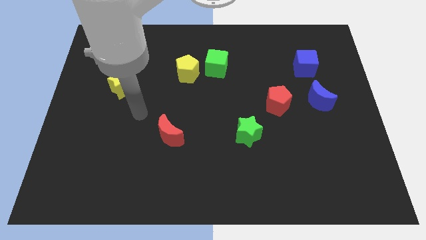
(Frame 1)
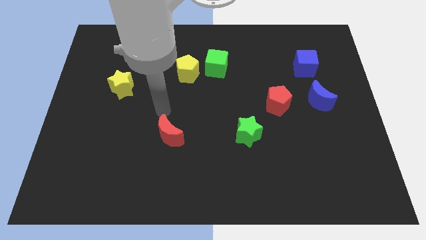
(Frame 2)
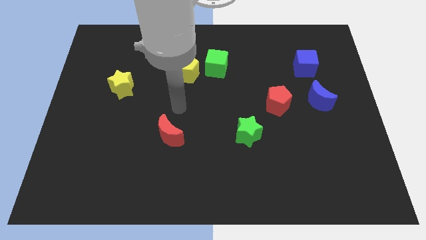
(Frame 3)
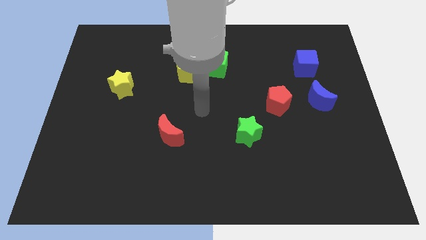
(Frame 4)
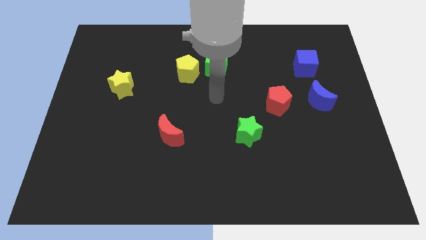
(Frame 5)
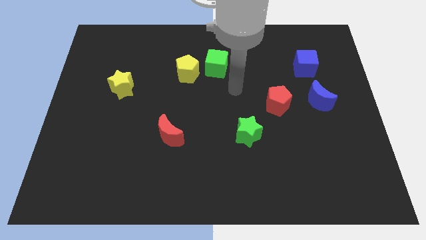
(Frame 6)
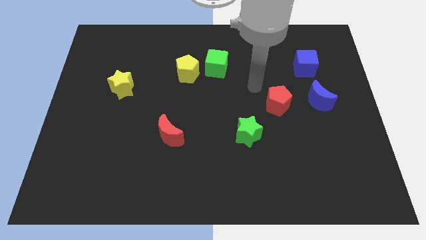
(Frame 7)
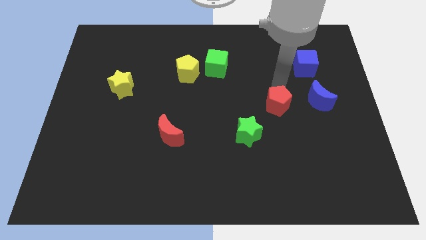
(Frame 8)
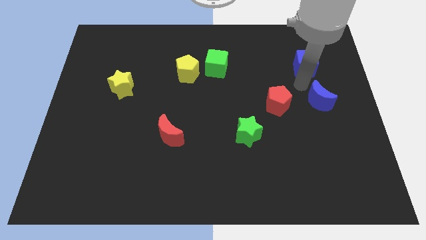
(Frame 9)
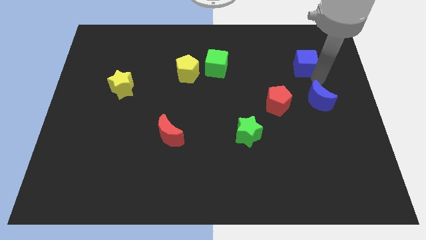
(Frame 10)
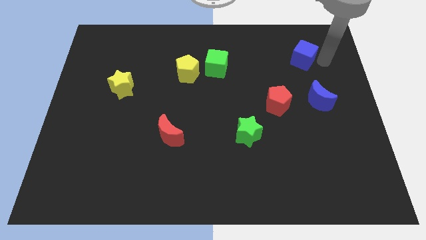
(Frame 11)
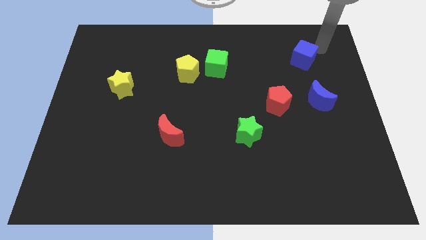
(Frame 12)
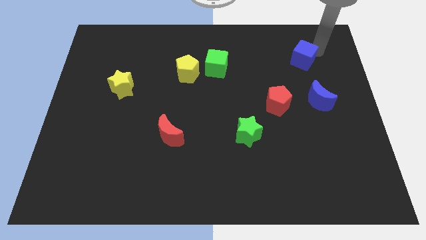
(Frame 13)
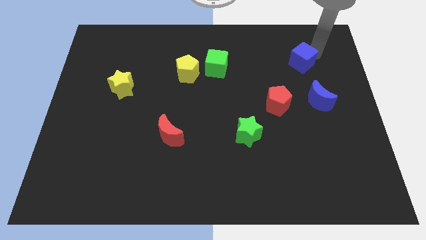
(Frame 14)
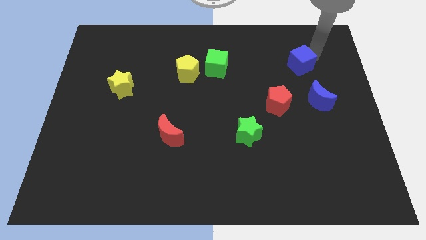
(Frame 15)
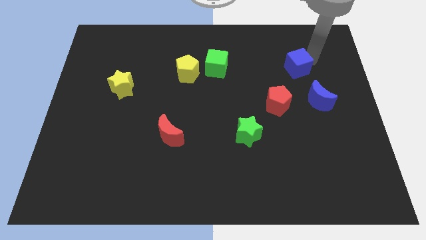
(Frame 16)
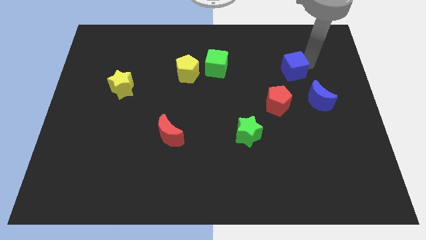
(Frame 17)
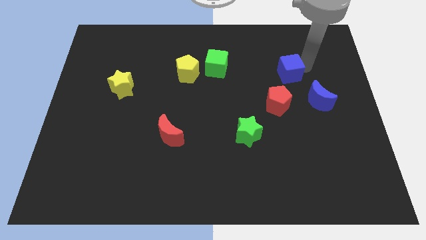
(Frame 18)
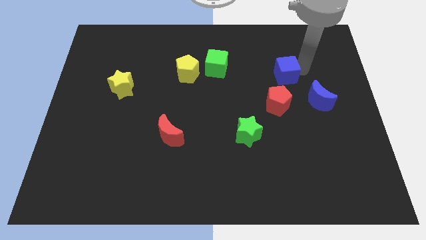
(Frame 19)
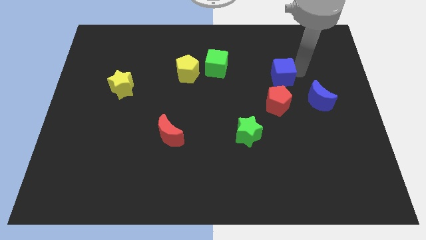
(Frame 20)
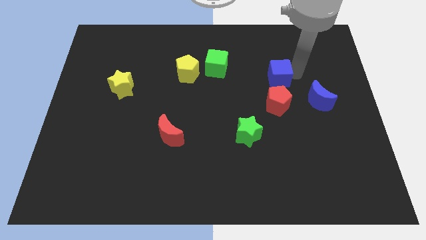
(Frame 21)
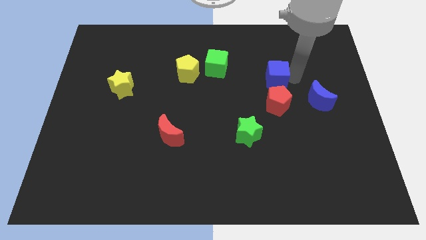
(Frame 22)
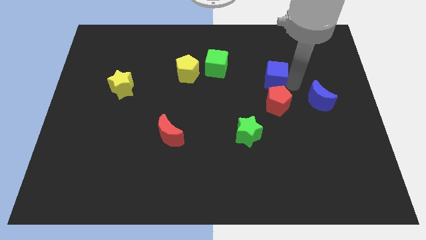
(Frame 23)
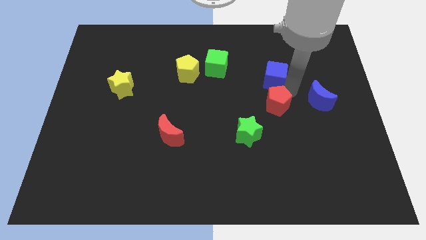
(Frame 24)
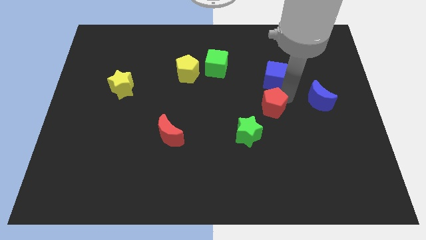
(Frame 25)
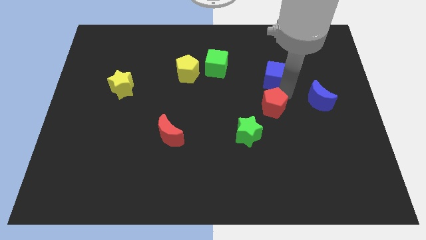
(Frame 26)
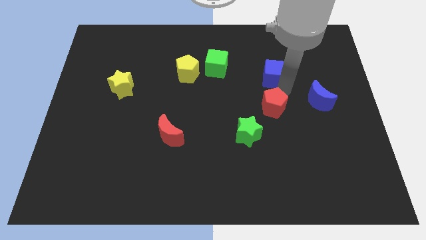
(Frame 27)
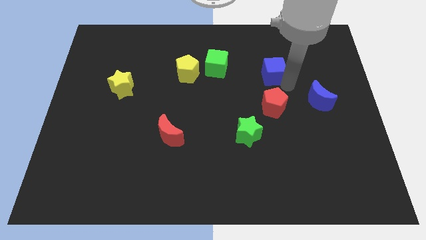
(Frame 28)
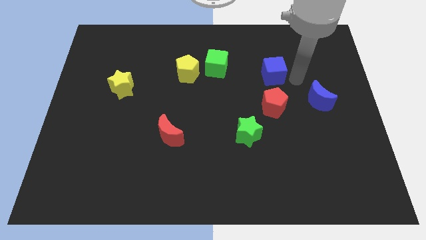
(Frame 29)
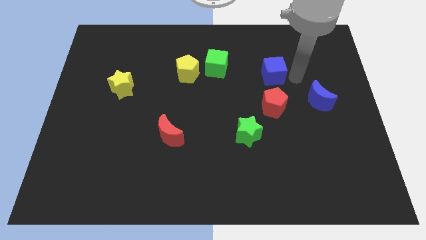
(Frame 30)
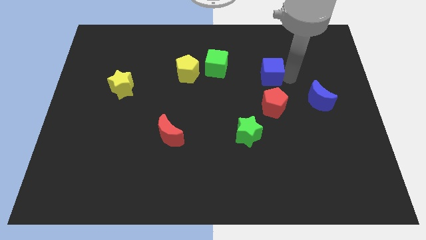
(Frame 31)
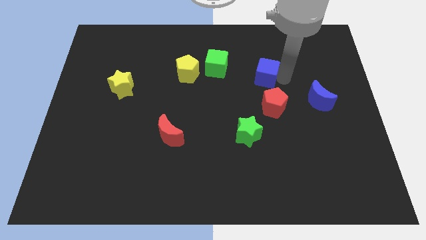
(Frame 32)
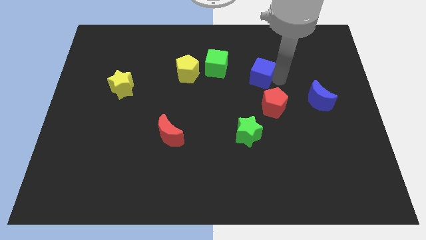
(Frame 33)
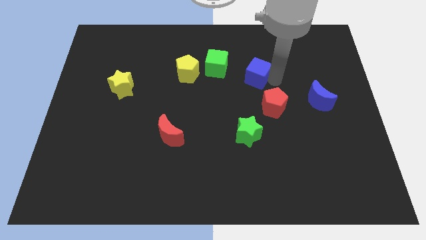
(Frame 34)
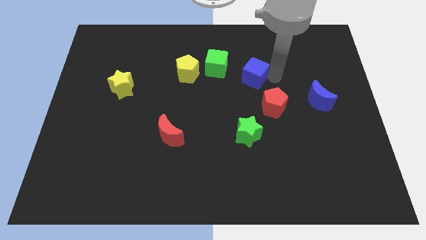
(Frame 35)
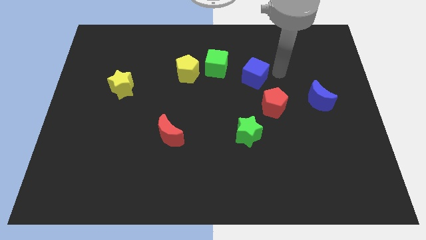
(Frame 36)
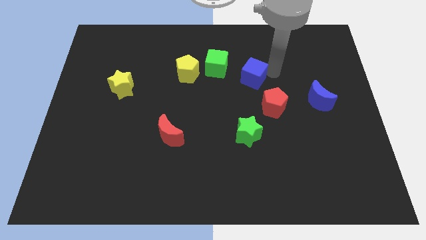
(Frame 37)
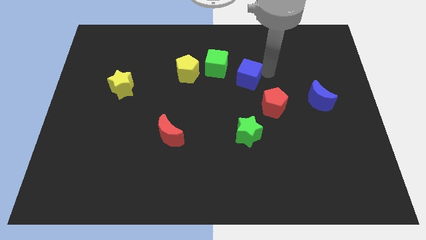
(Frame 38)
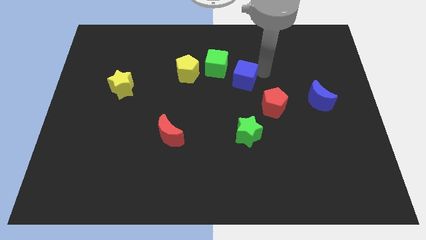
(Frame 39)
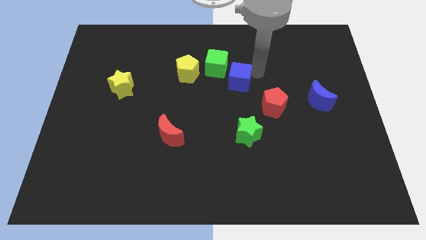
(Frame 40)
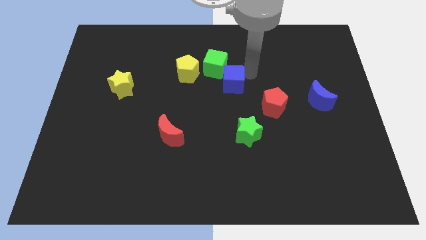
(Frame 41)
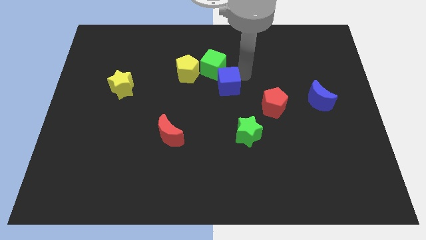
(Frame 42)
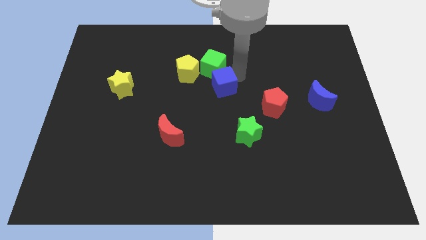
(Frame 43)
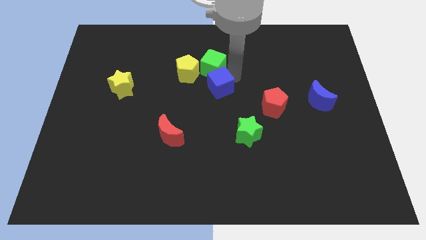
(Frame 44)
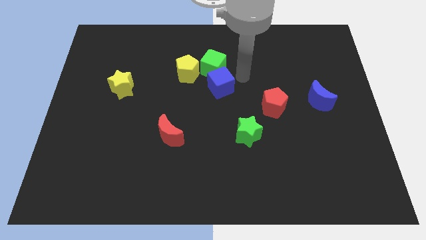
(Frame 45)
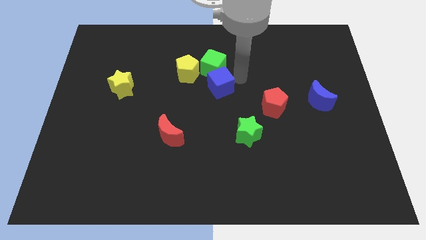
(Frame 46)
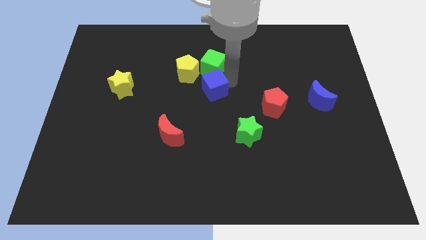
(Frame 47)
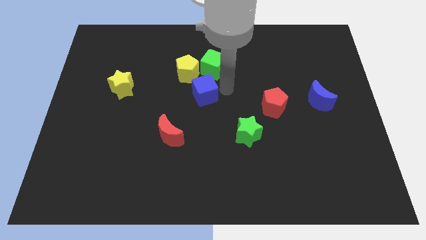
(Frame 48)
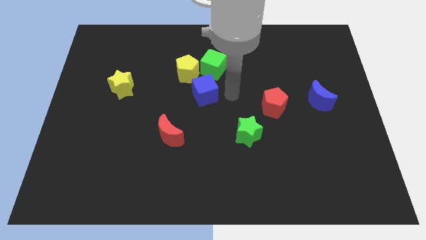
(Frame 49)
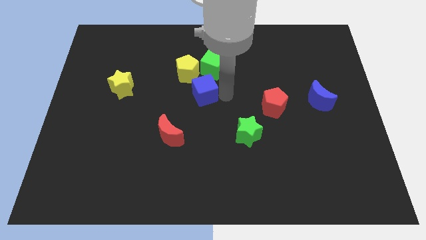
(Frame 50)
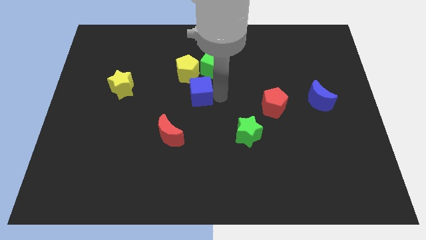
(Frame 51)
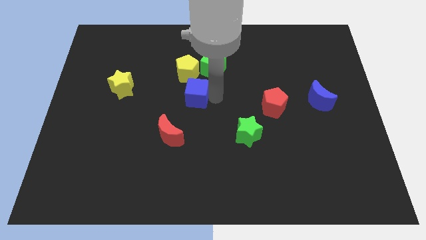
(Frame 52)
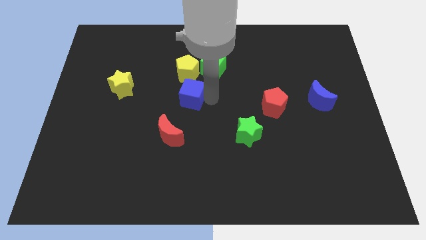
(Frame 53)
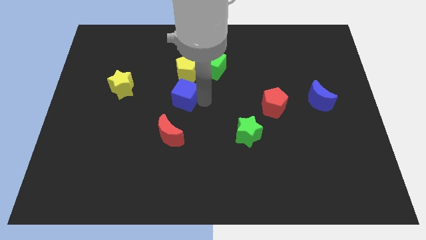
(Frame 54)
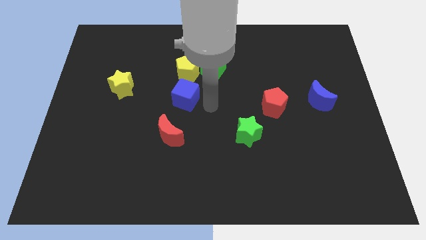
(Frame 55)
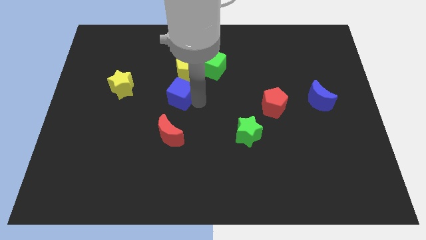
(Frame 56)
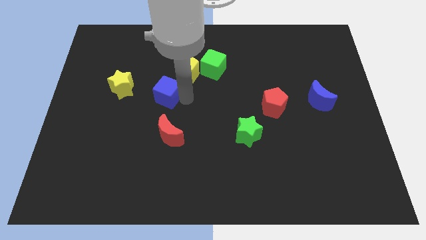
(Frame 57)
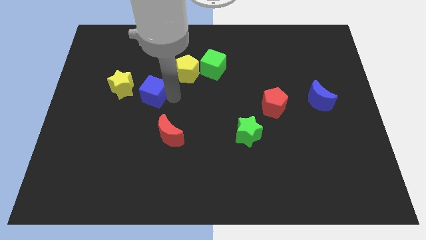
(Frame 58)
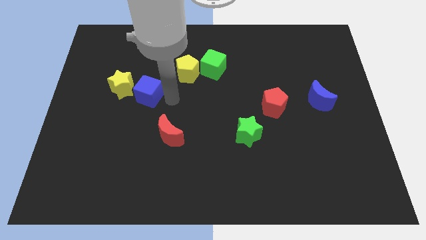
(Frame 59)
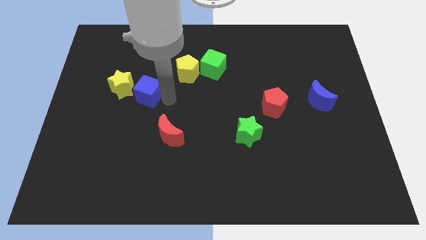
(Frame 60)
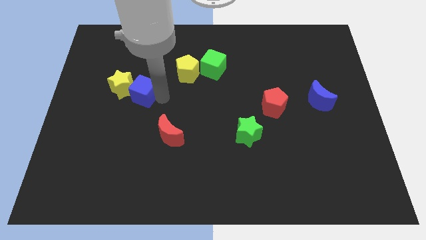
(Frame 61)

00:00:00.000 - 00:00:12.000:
slide the blue cube next to the yellow star

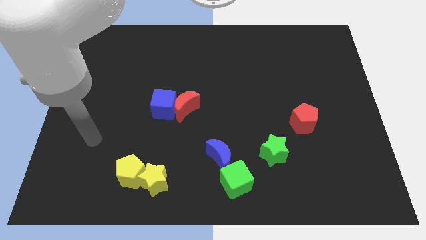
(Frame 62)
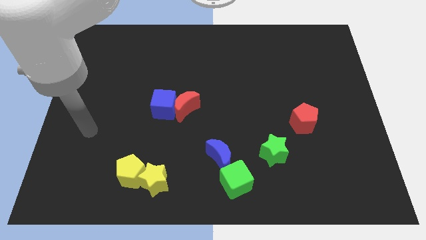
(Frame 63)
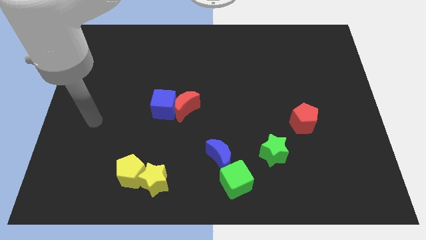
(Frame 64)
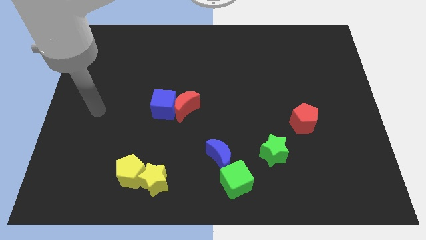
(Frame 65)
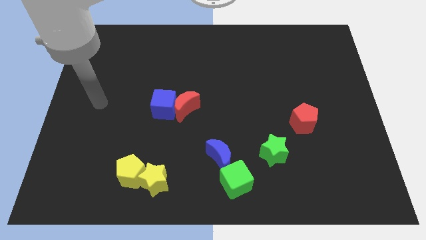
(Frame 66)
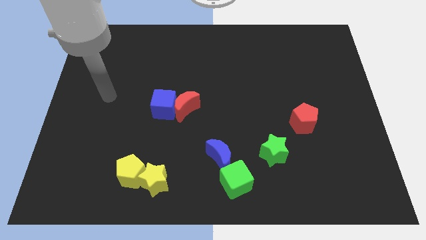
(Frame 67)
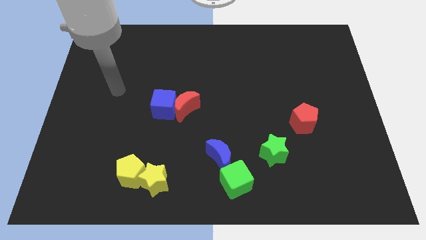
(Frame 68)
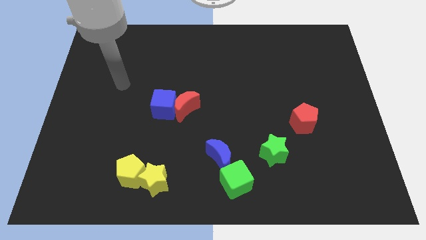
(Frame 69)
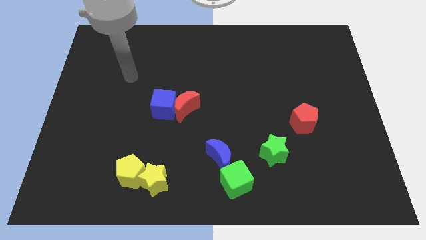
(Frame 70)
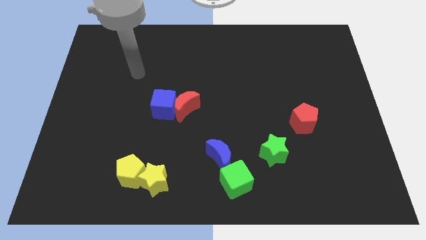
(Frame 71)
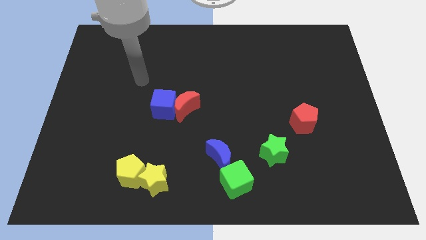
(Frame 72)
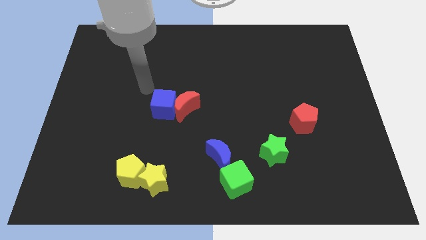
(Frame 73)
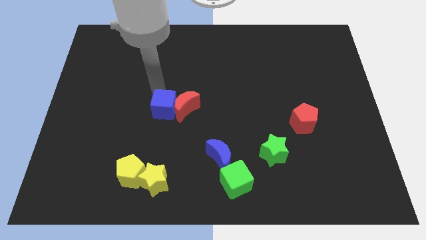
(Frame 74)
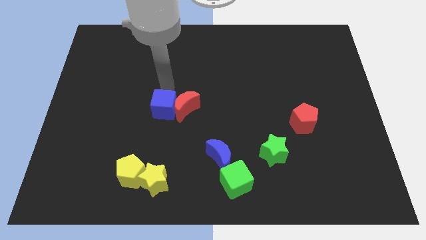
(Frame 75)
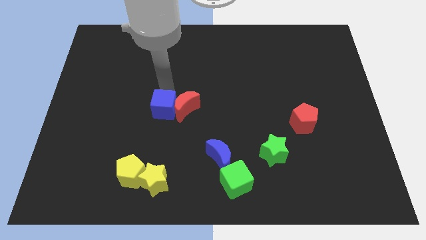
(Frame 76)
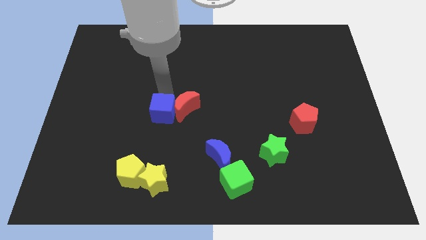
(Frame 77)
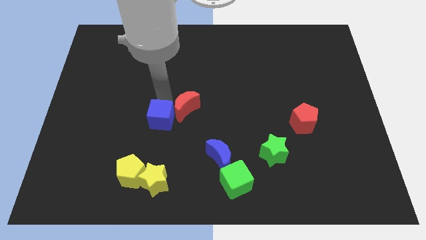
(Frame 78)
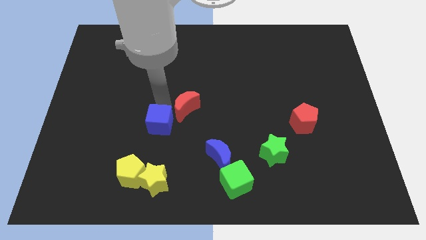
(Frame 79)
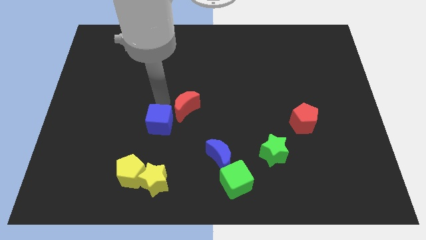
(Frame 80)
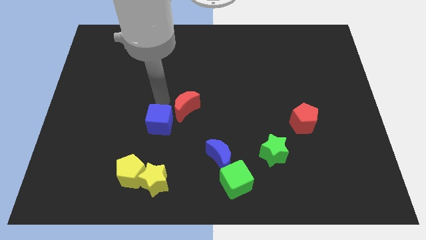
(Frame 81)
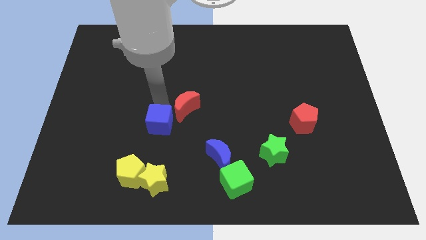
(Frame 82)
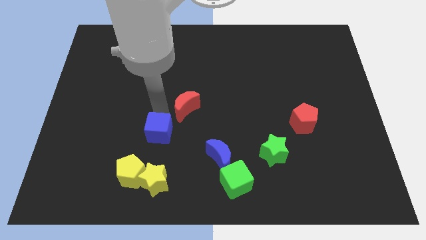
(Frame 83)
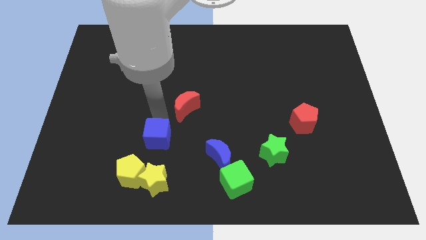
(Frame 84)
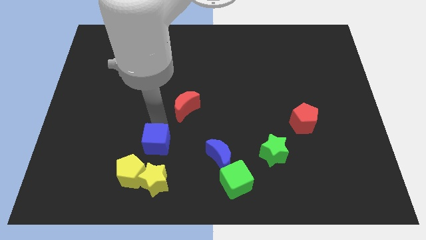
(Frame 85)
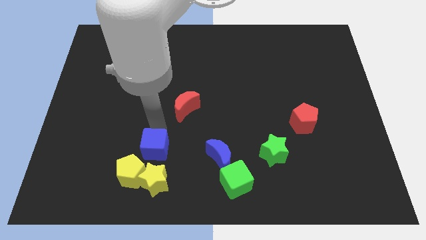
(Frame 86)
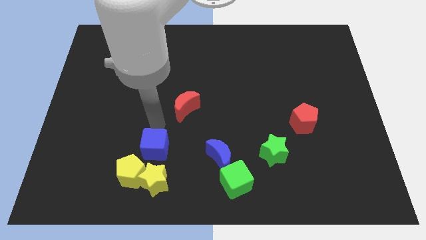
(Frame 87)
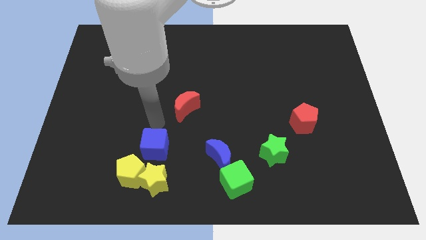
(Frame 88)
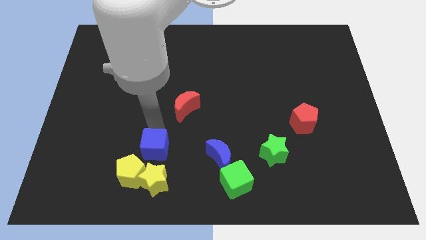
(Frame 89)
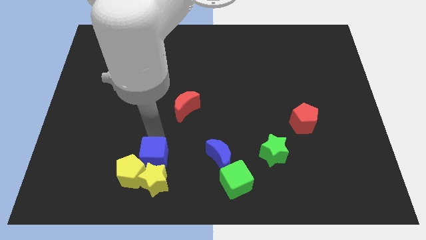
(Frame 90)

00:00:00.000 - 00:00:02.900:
push the blue cube next to the yellow star
